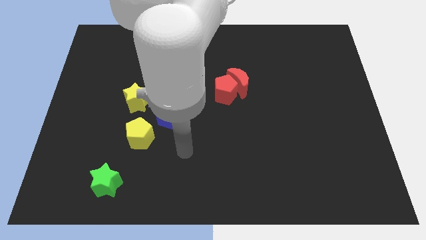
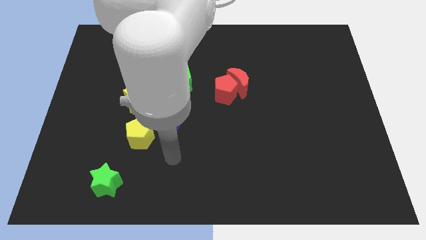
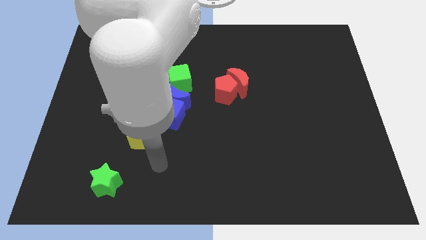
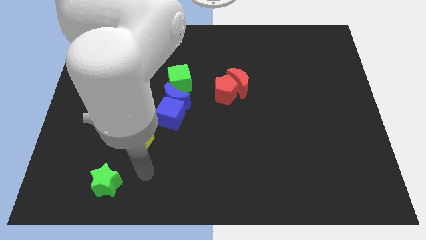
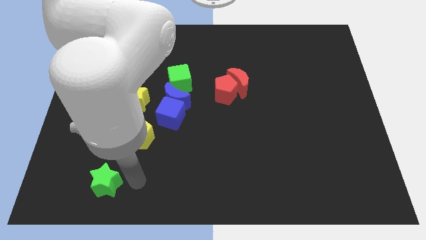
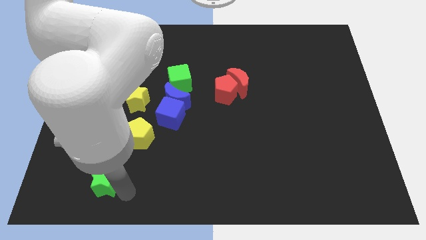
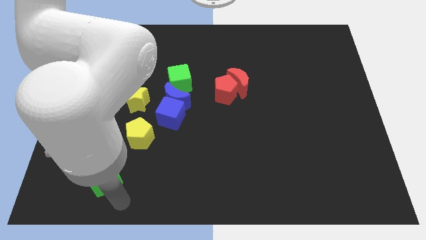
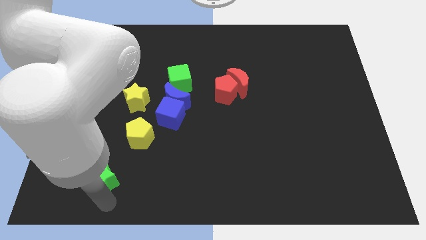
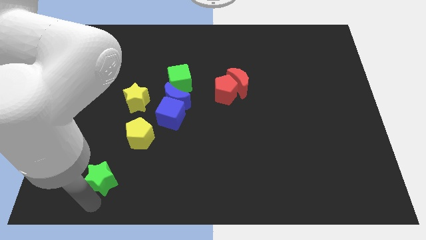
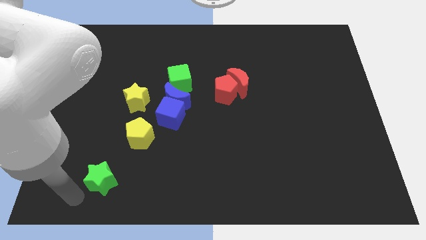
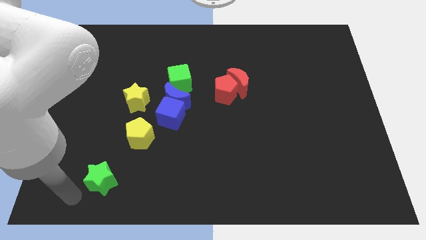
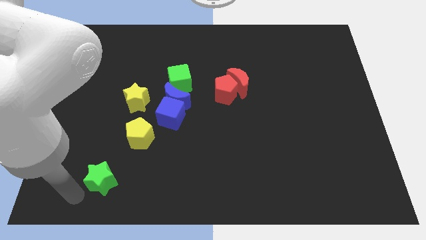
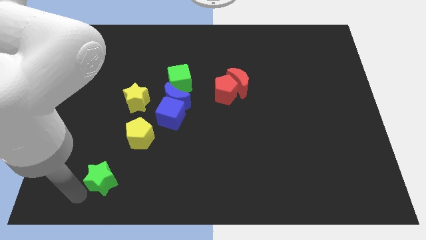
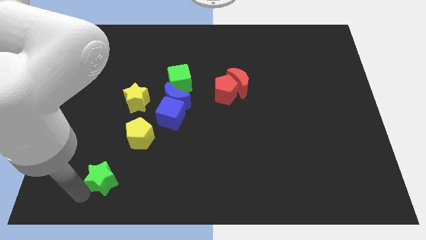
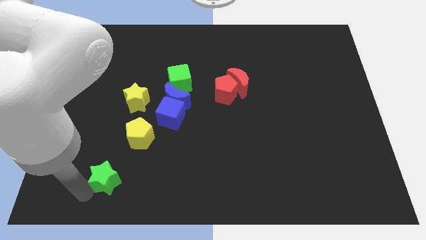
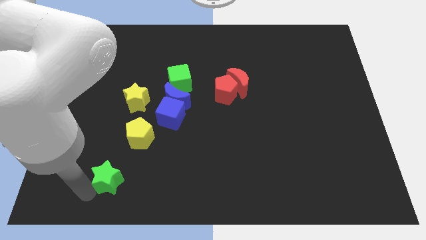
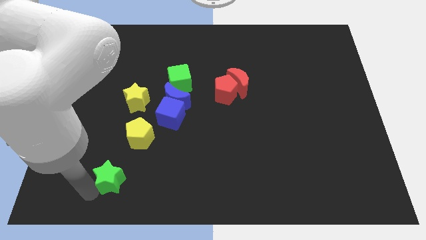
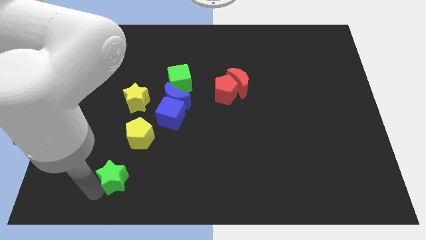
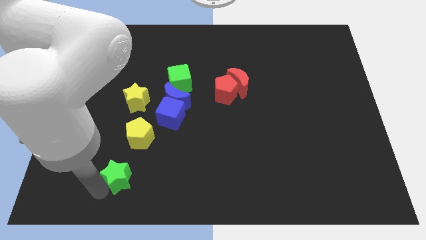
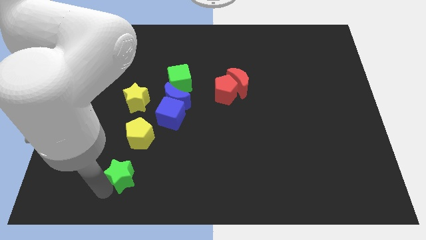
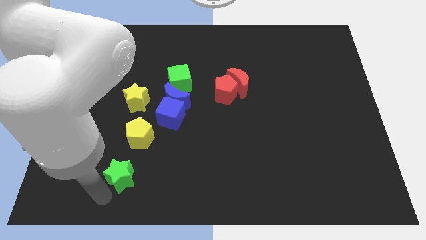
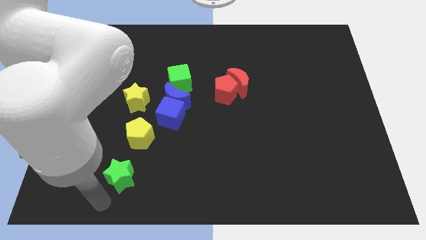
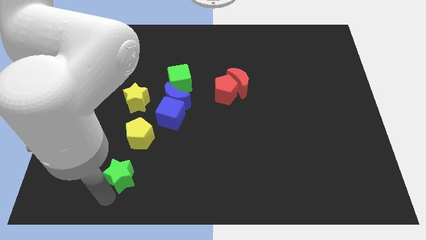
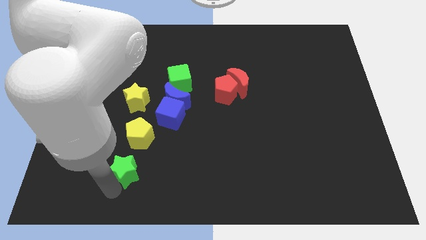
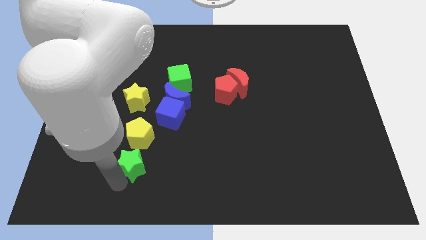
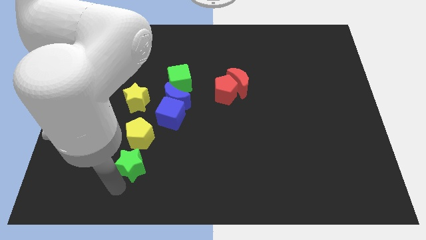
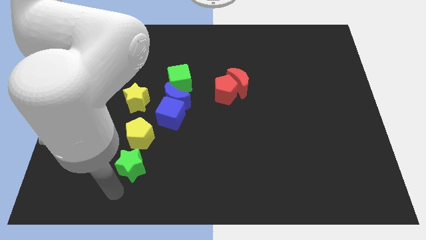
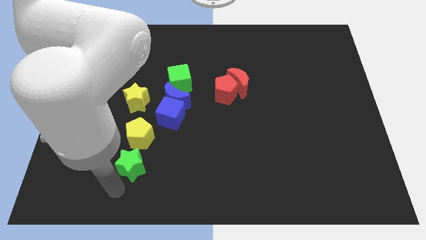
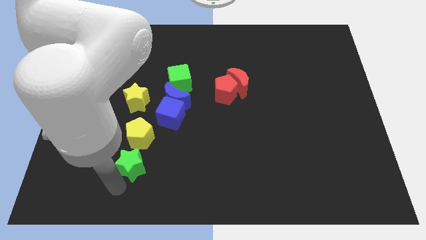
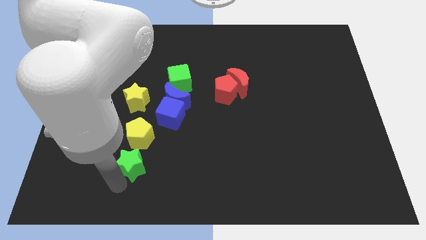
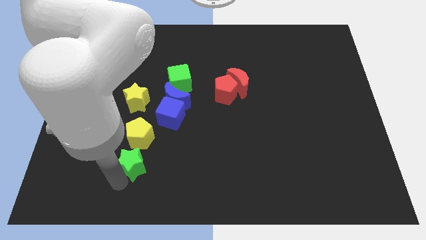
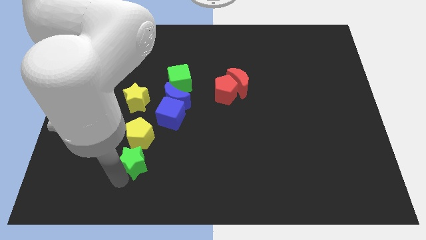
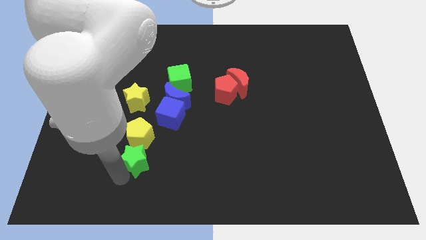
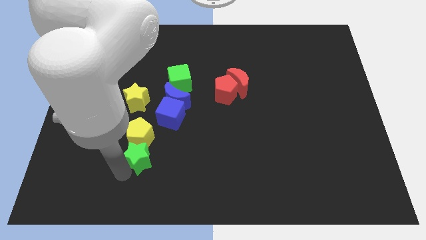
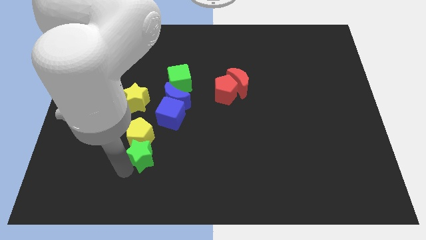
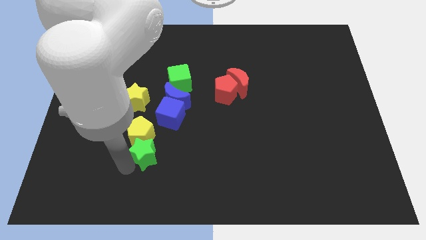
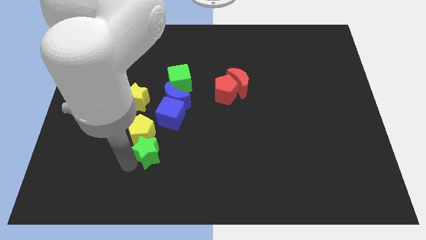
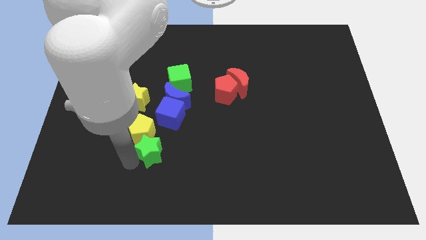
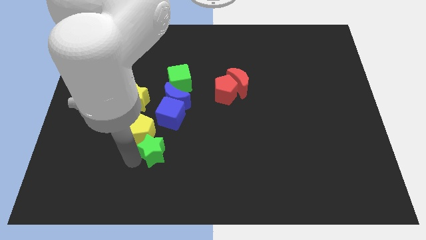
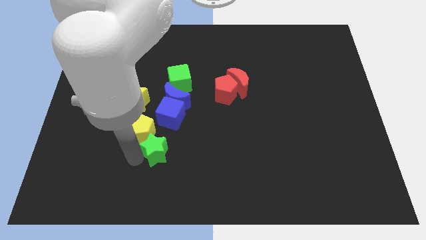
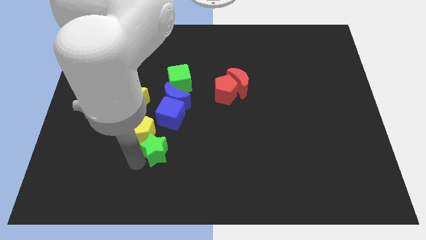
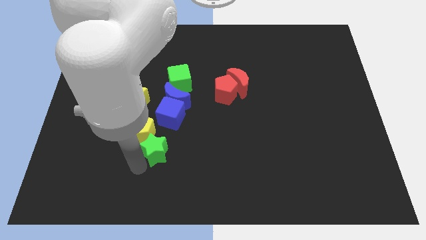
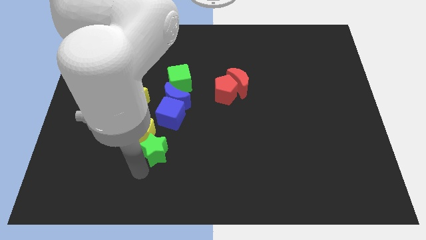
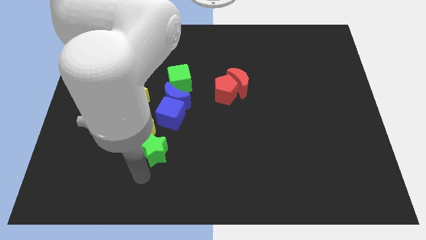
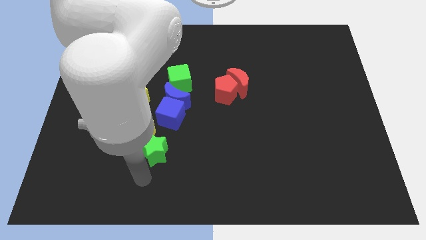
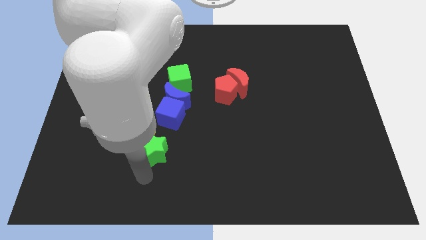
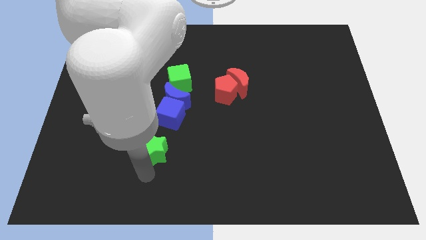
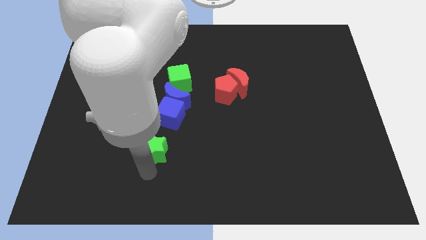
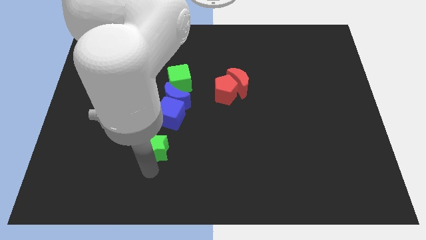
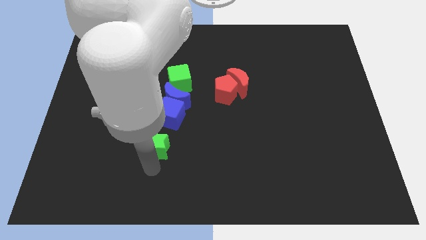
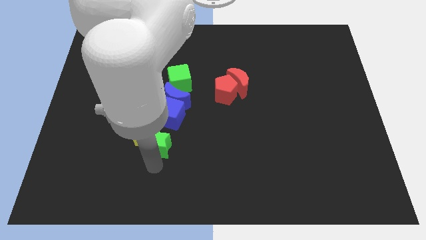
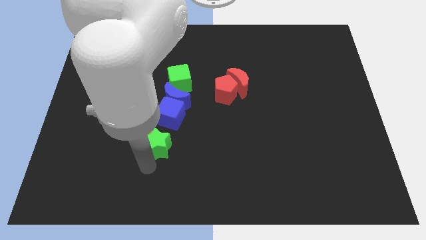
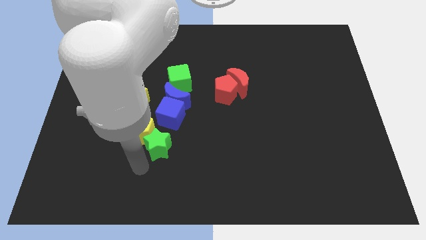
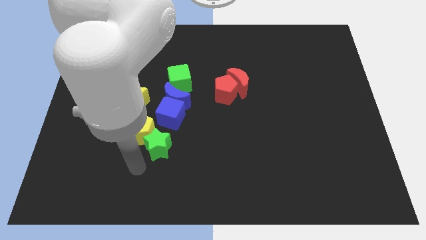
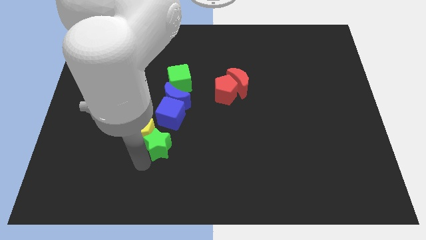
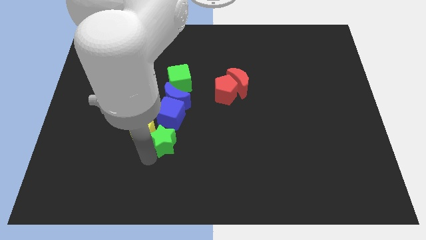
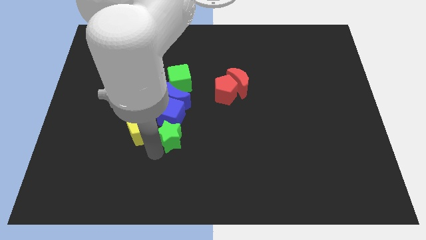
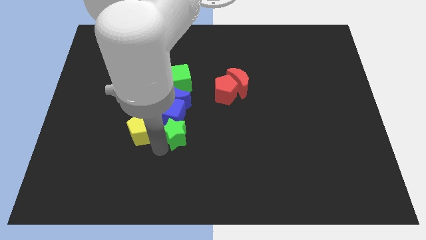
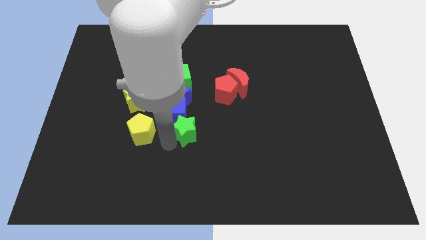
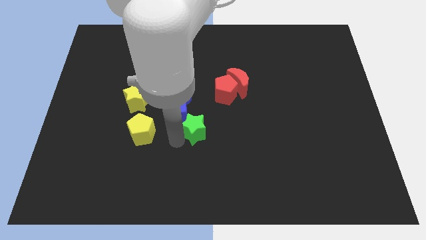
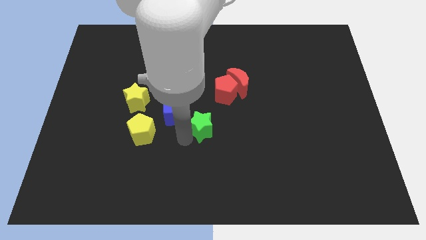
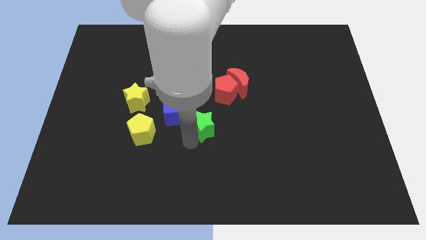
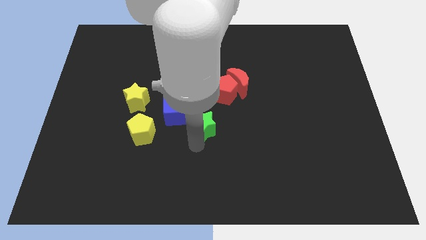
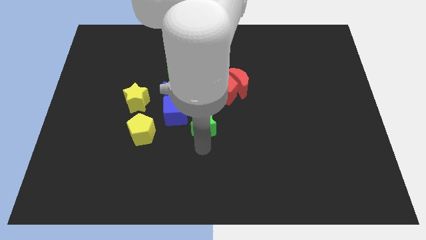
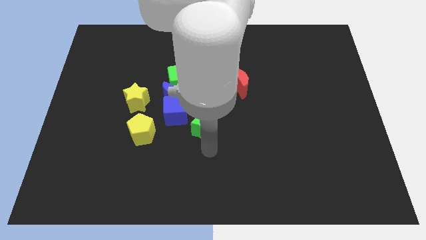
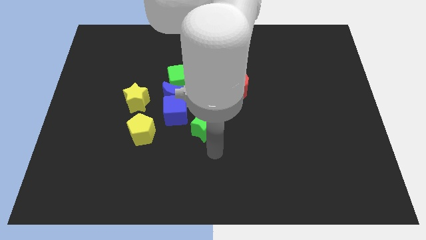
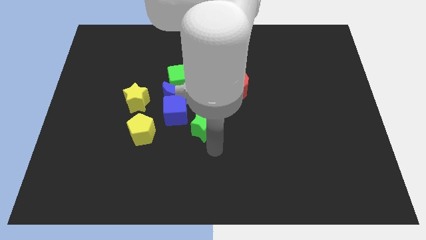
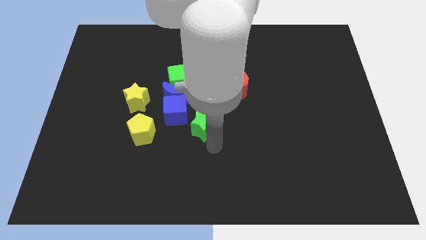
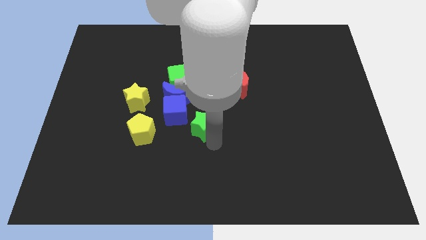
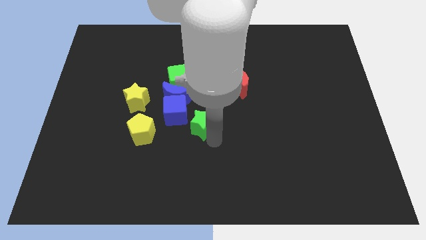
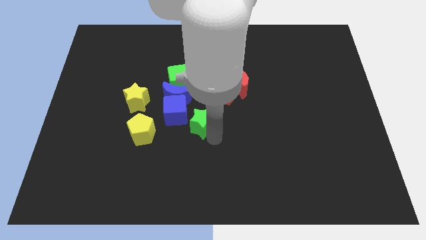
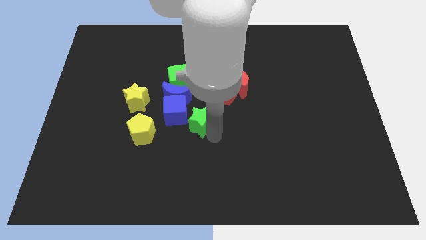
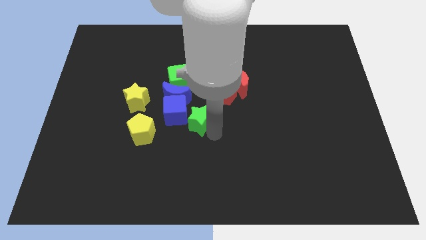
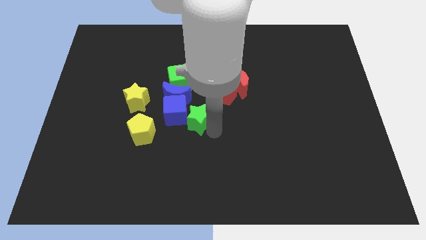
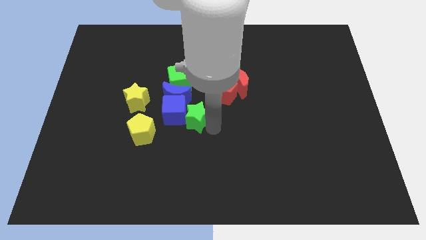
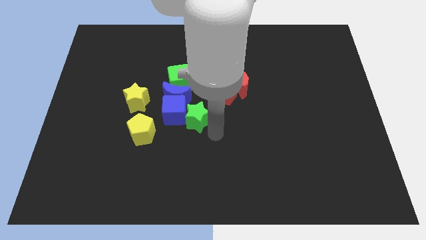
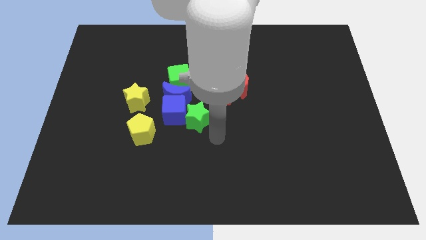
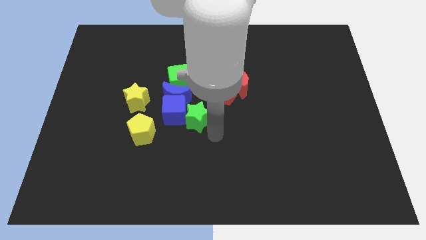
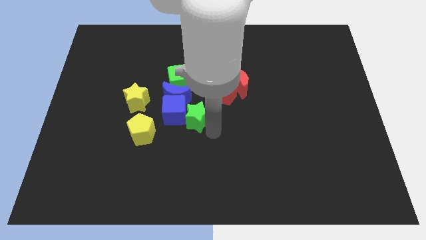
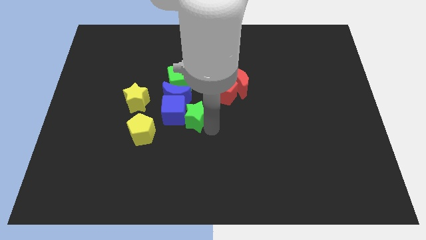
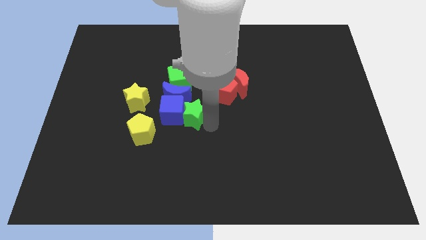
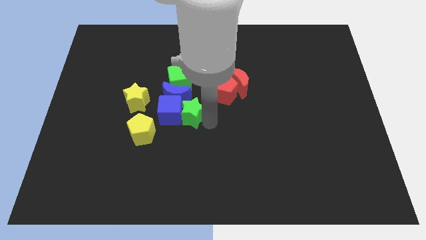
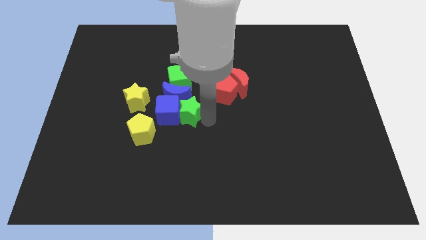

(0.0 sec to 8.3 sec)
move the green star to the blue moon

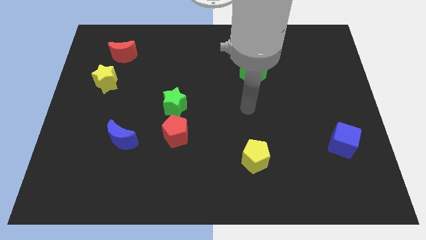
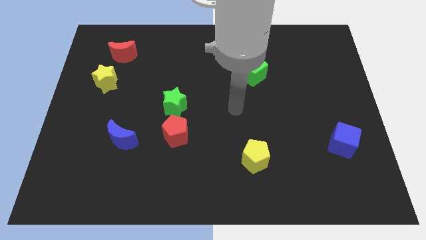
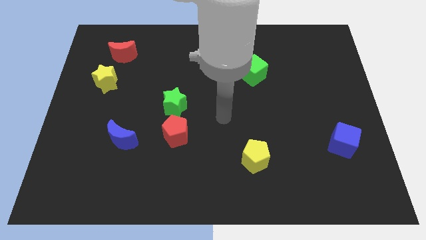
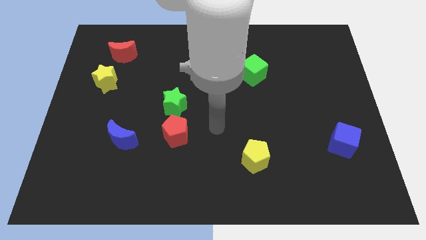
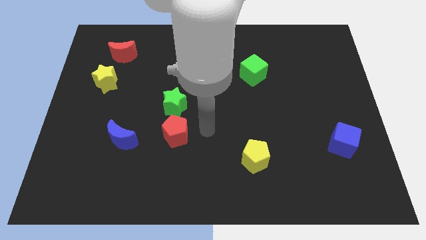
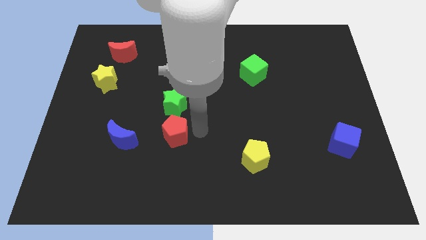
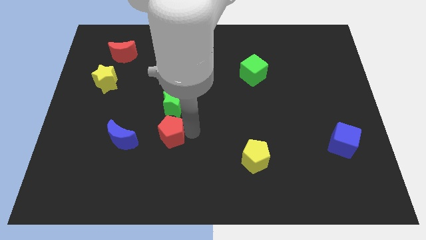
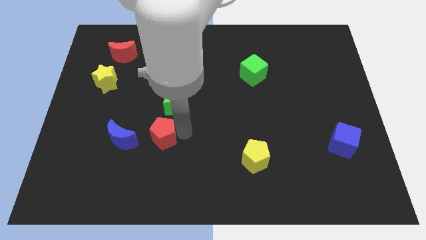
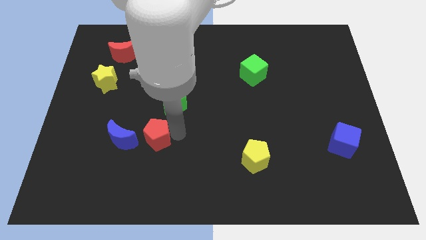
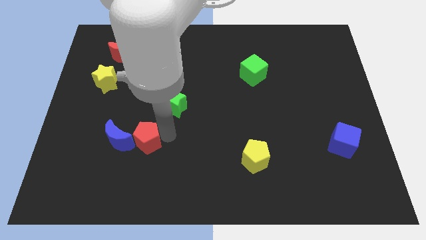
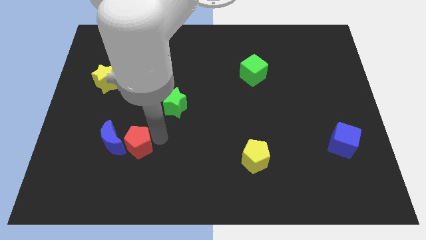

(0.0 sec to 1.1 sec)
slide the red pentagon towards the blue moon
